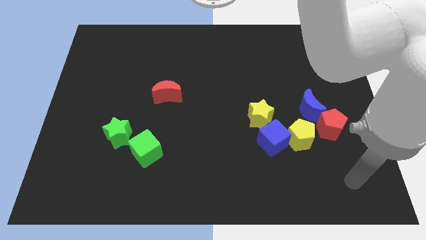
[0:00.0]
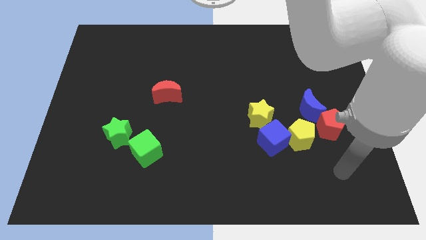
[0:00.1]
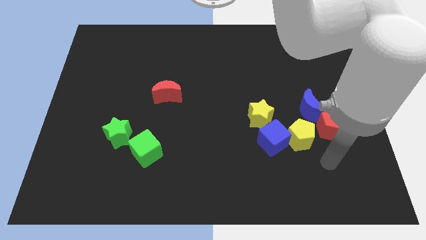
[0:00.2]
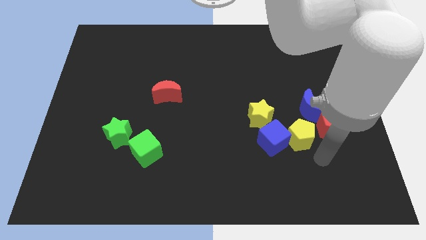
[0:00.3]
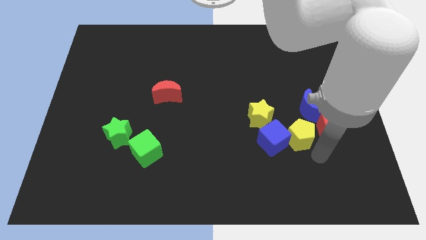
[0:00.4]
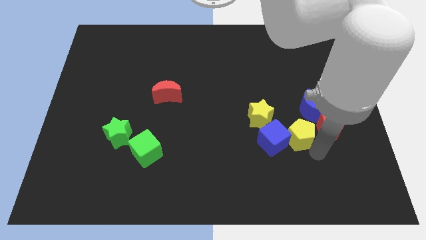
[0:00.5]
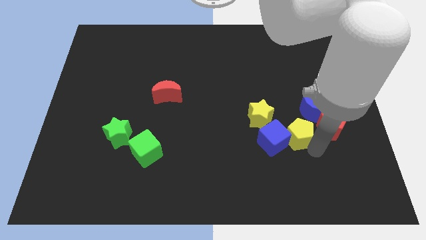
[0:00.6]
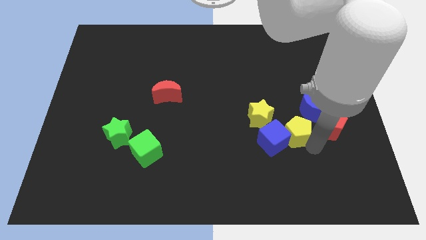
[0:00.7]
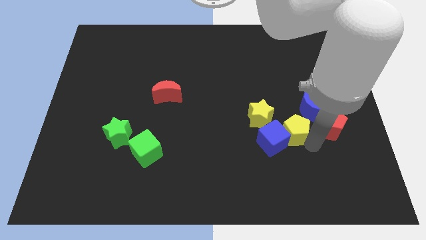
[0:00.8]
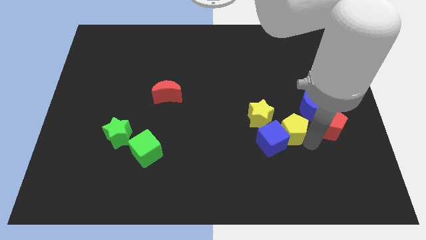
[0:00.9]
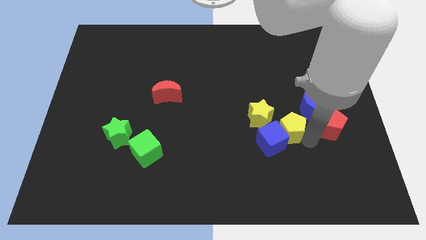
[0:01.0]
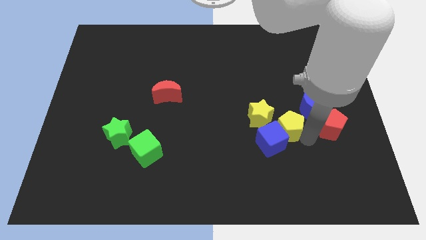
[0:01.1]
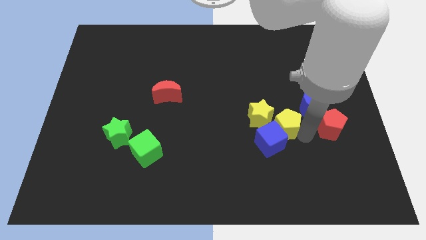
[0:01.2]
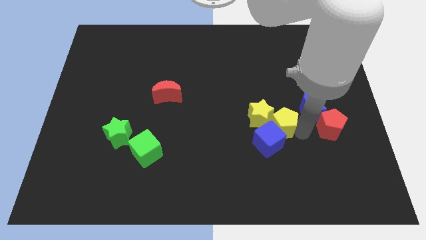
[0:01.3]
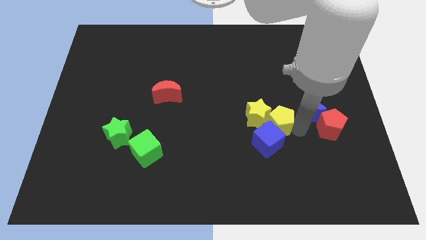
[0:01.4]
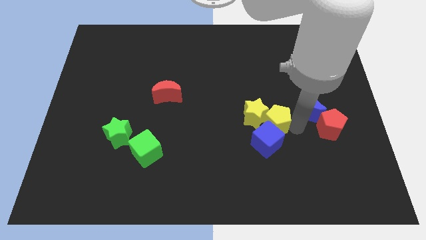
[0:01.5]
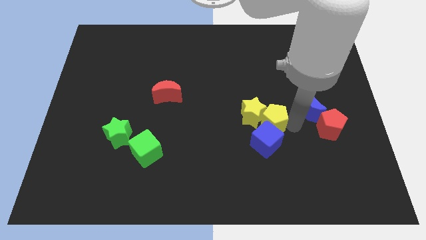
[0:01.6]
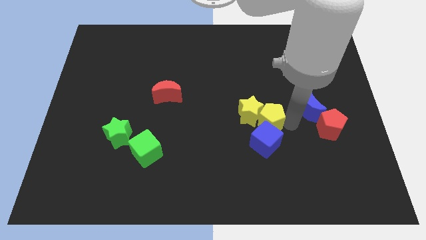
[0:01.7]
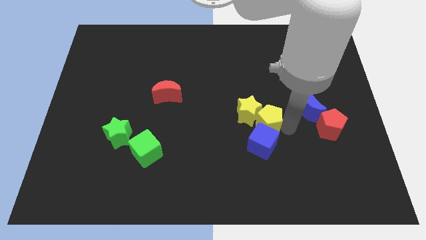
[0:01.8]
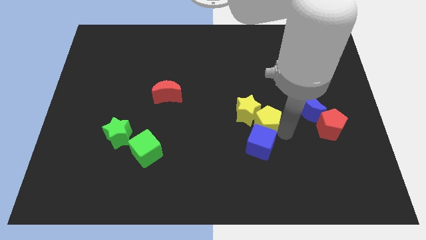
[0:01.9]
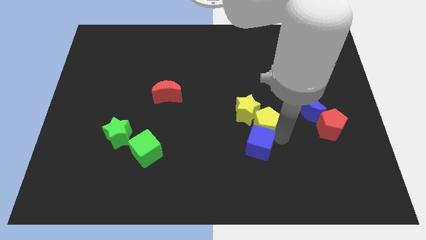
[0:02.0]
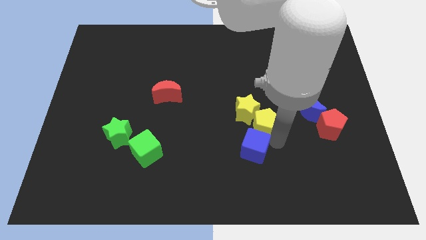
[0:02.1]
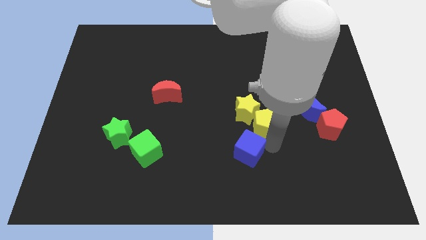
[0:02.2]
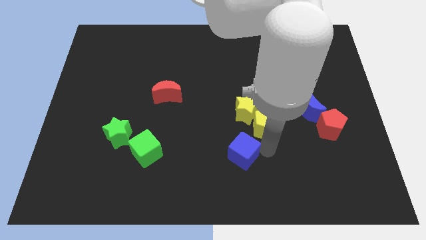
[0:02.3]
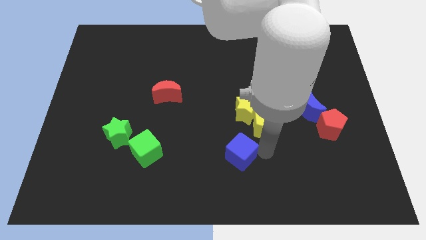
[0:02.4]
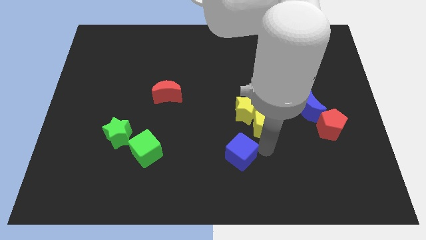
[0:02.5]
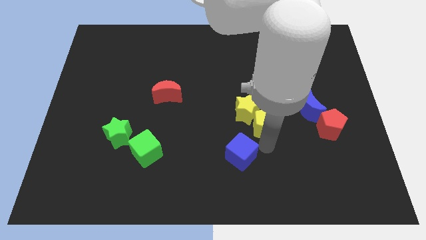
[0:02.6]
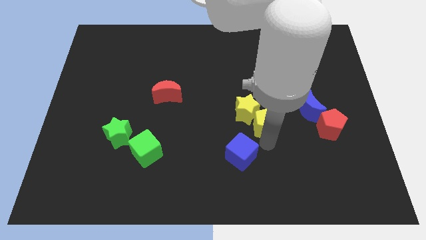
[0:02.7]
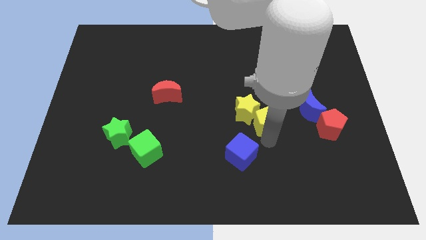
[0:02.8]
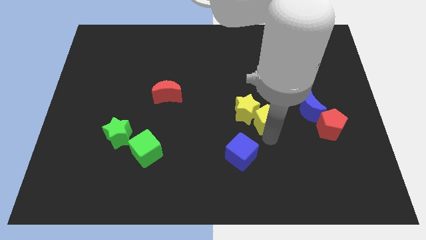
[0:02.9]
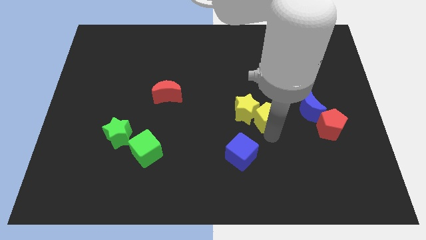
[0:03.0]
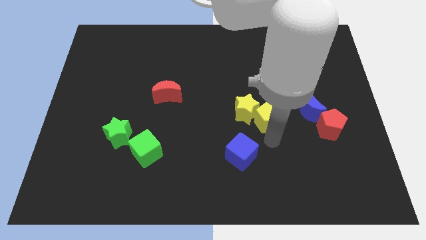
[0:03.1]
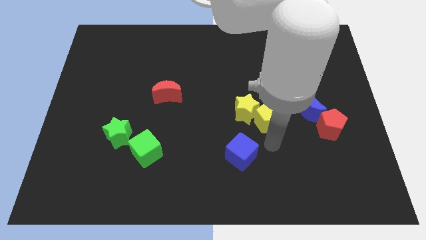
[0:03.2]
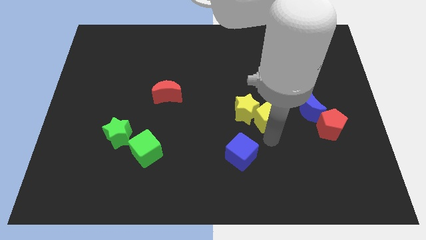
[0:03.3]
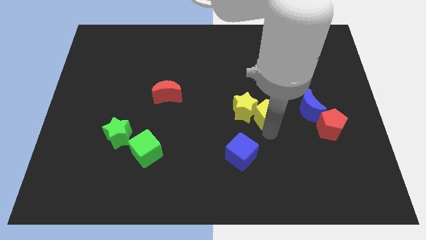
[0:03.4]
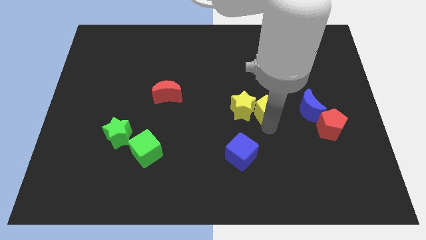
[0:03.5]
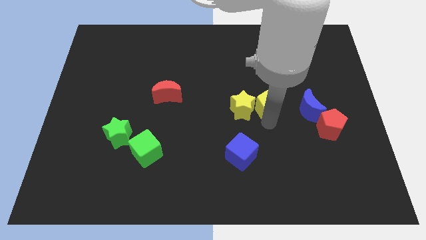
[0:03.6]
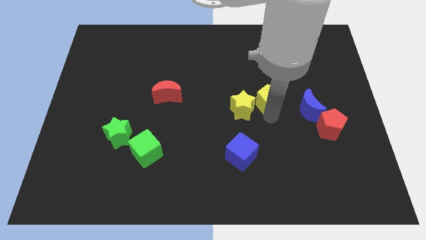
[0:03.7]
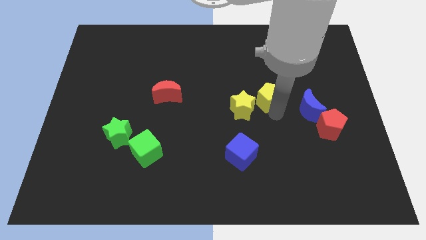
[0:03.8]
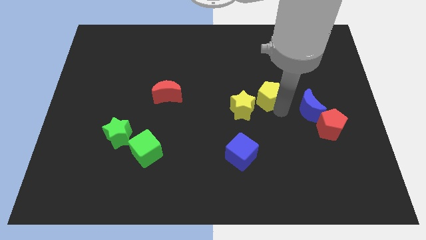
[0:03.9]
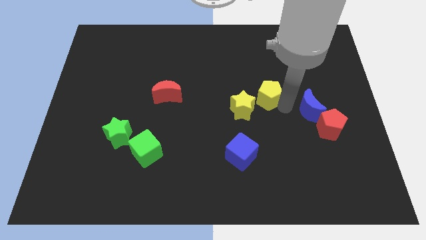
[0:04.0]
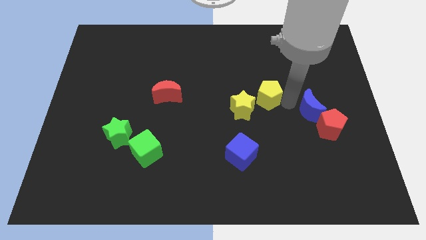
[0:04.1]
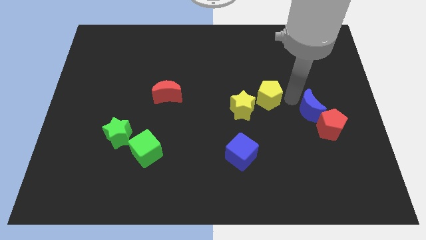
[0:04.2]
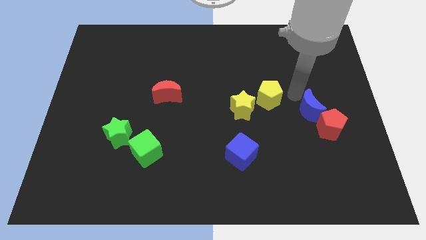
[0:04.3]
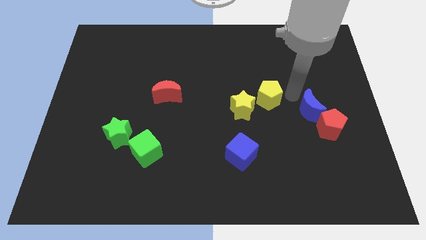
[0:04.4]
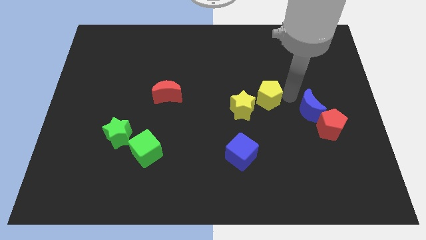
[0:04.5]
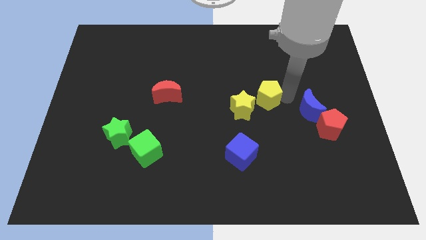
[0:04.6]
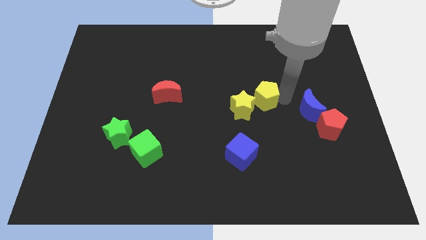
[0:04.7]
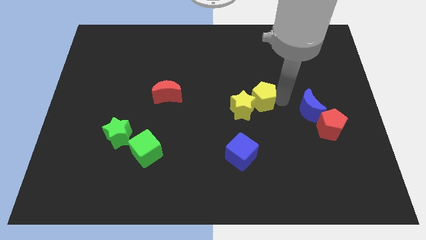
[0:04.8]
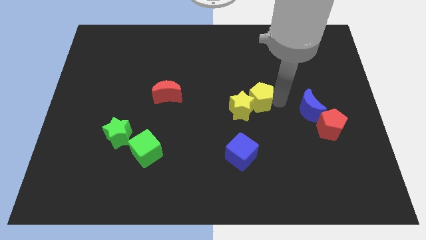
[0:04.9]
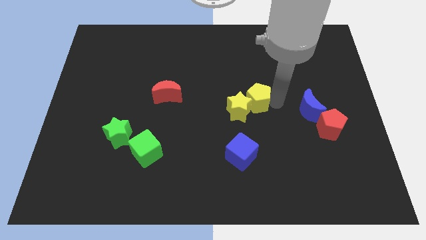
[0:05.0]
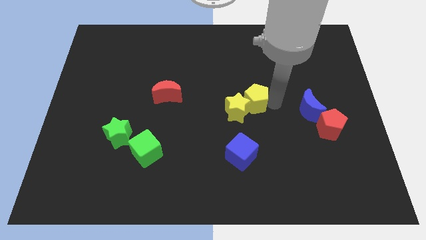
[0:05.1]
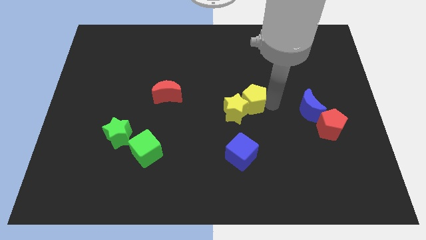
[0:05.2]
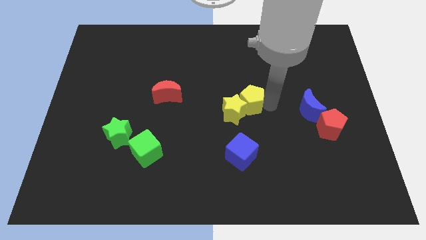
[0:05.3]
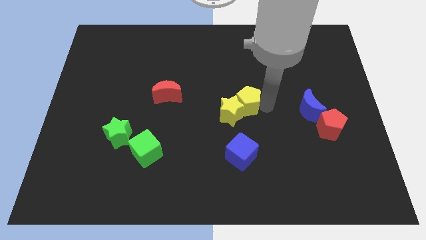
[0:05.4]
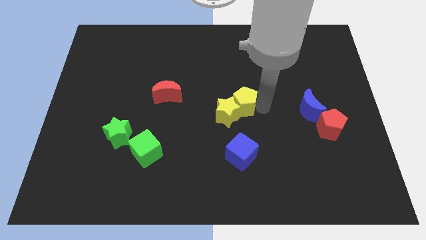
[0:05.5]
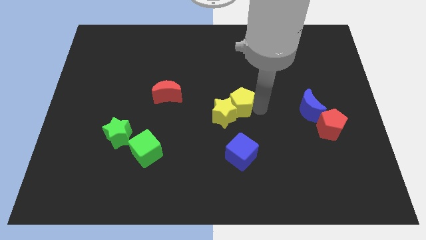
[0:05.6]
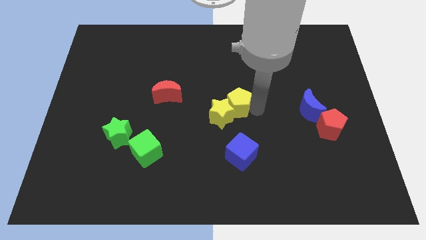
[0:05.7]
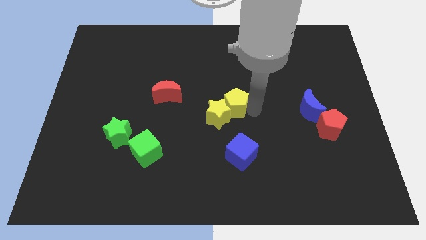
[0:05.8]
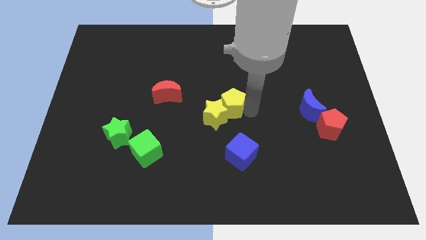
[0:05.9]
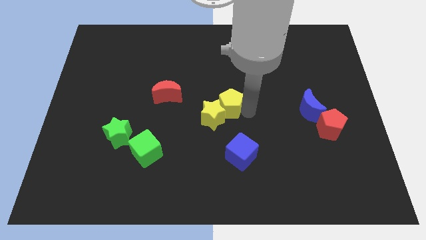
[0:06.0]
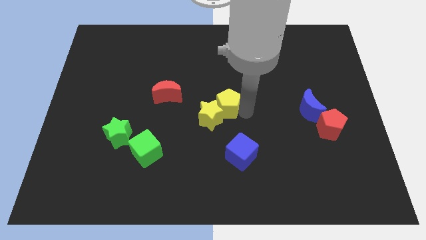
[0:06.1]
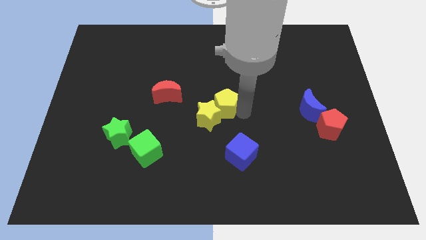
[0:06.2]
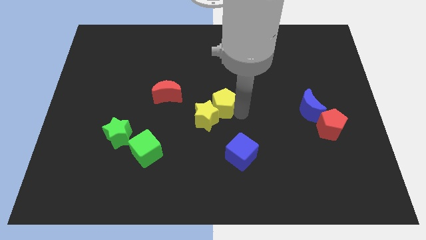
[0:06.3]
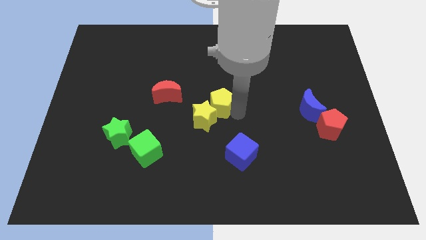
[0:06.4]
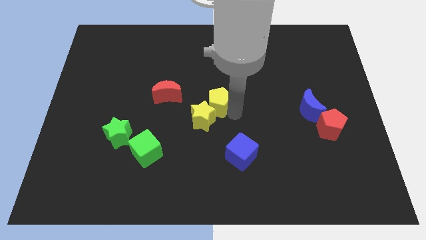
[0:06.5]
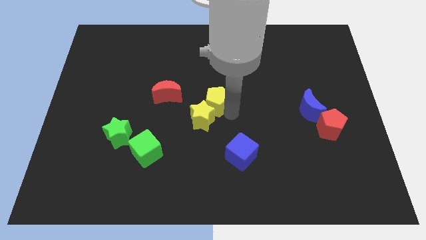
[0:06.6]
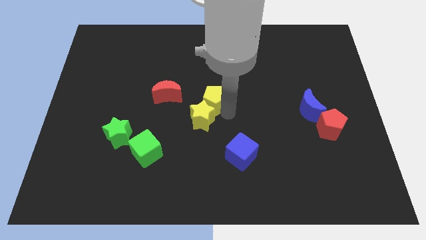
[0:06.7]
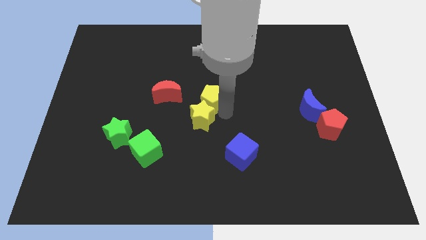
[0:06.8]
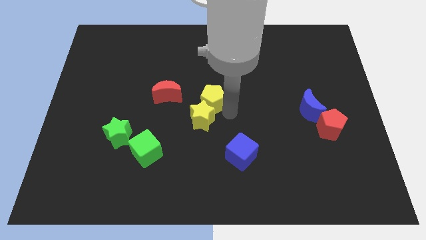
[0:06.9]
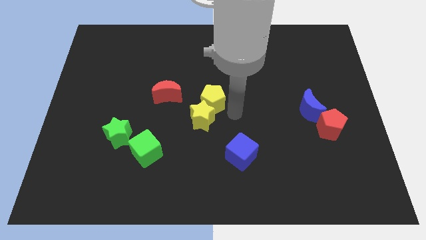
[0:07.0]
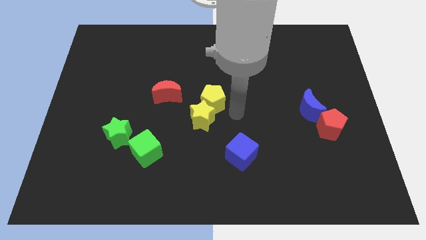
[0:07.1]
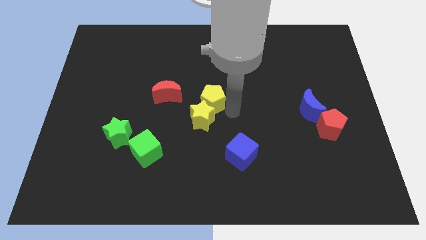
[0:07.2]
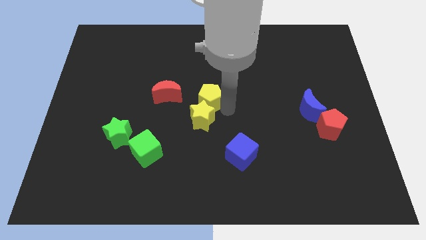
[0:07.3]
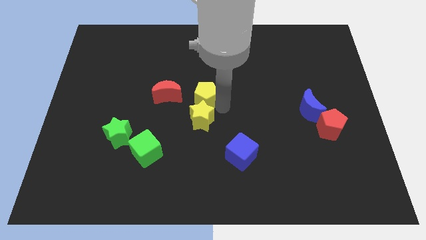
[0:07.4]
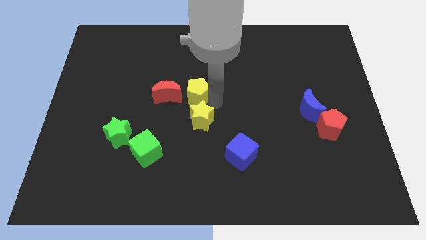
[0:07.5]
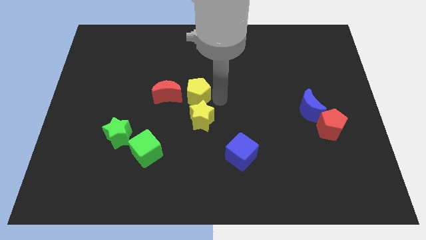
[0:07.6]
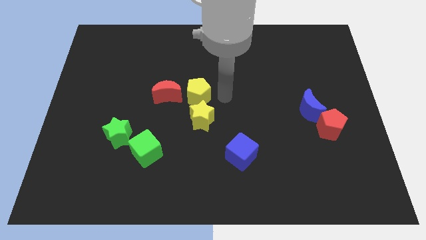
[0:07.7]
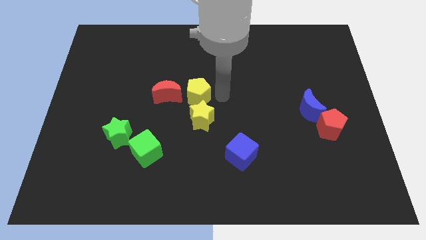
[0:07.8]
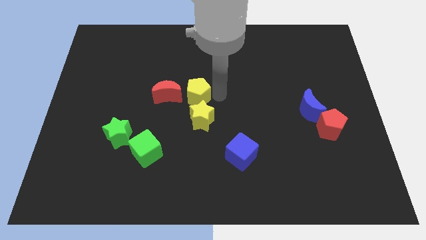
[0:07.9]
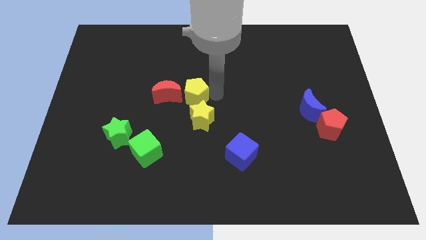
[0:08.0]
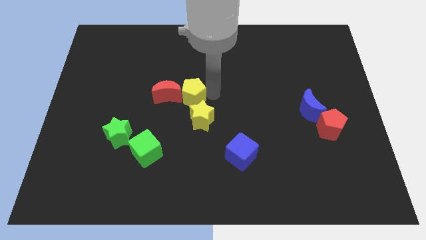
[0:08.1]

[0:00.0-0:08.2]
put the yellow pentagon close to the red moon
